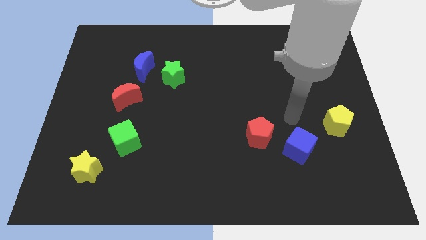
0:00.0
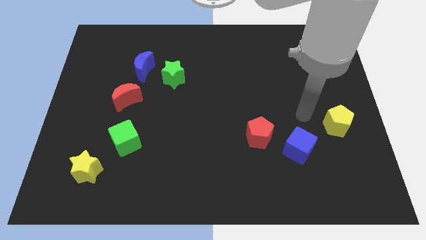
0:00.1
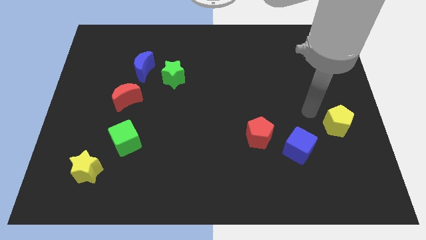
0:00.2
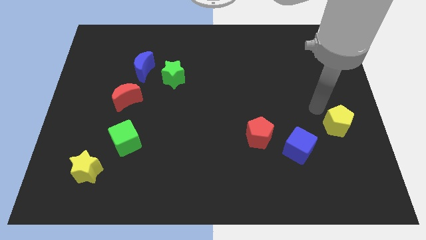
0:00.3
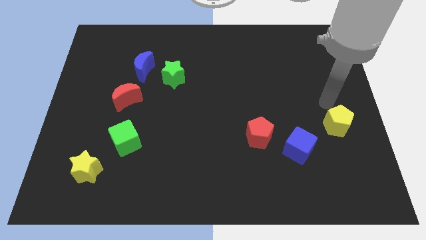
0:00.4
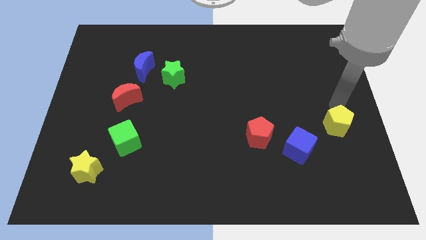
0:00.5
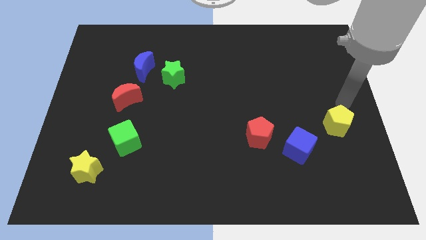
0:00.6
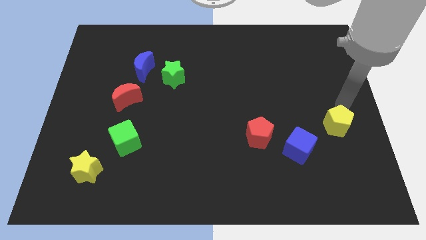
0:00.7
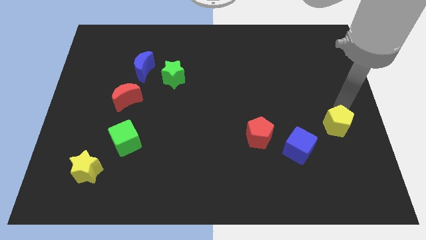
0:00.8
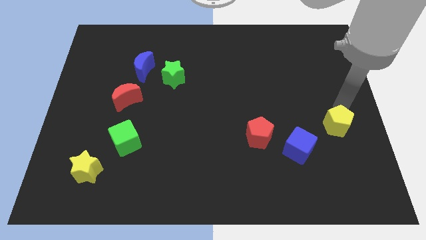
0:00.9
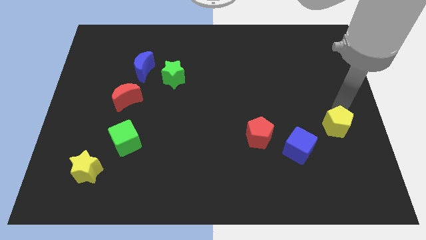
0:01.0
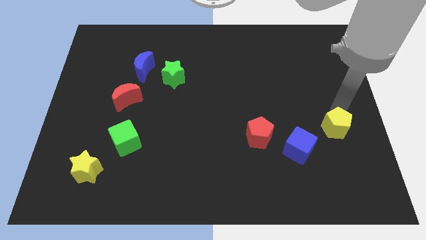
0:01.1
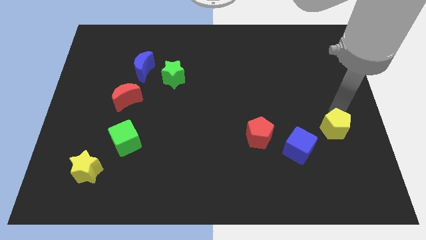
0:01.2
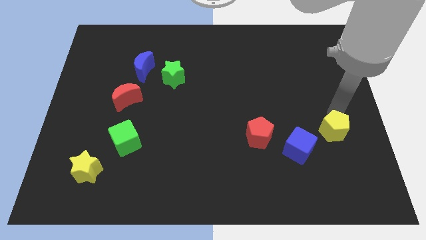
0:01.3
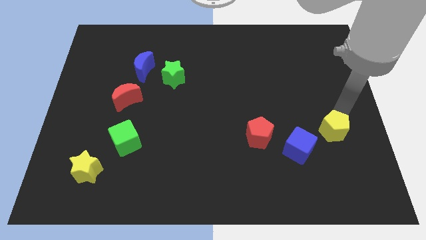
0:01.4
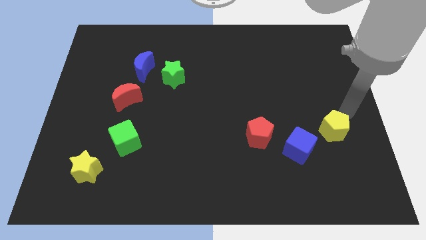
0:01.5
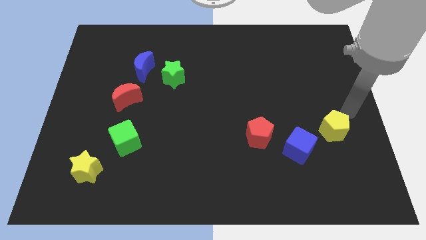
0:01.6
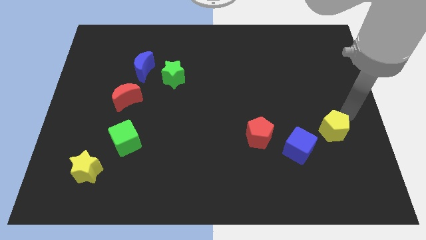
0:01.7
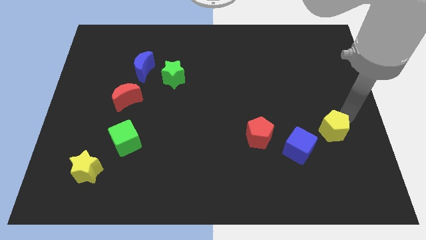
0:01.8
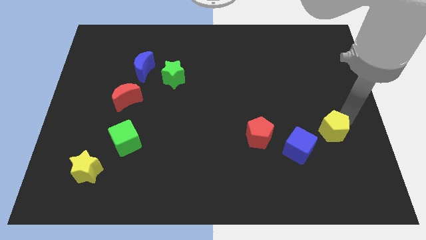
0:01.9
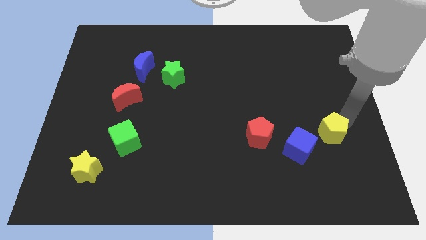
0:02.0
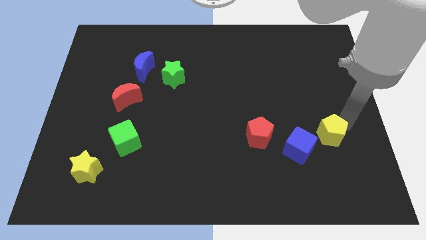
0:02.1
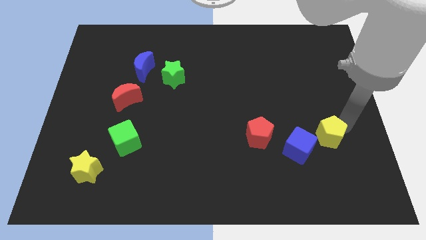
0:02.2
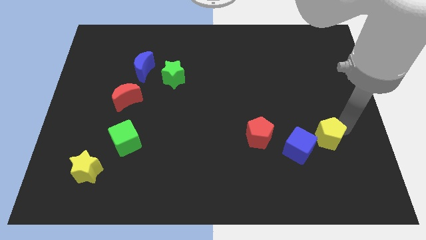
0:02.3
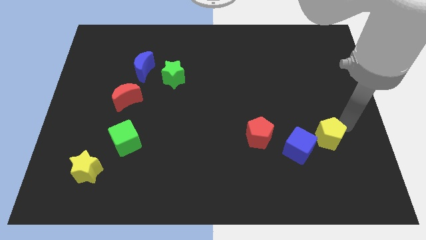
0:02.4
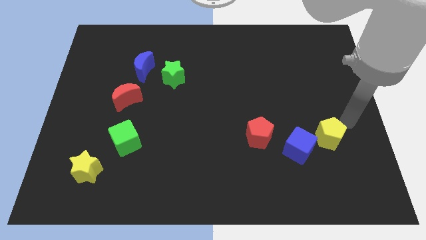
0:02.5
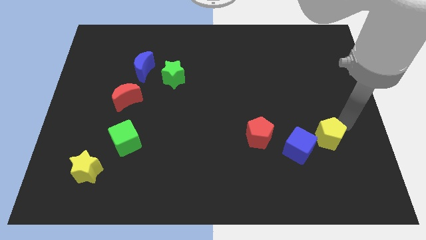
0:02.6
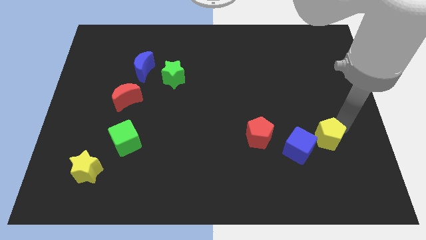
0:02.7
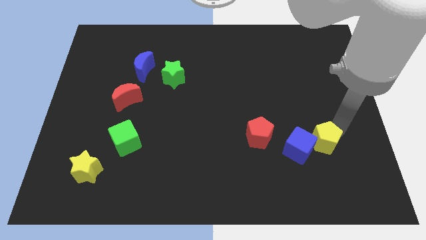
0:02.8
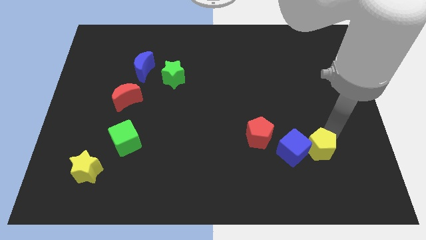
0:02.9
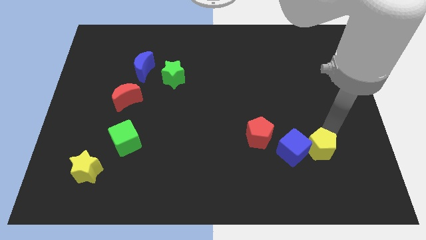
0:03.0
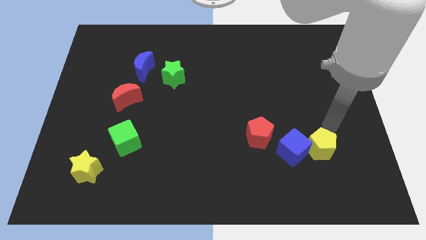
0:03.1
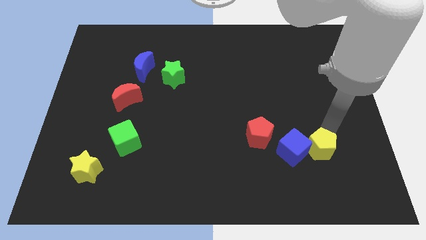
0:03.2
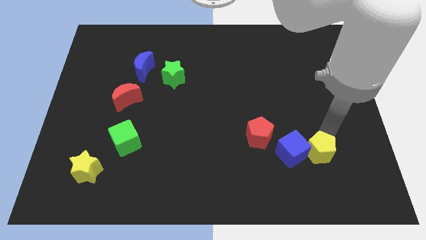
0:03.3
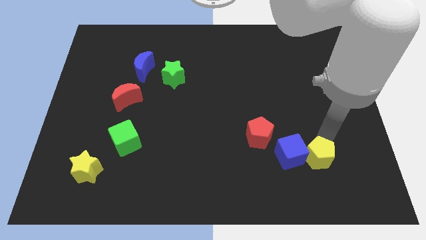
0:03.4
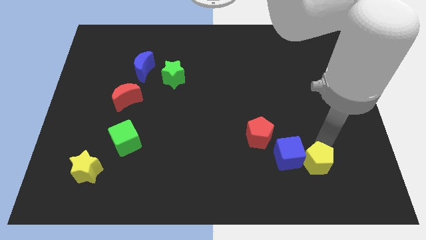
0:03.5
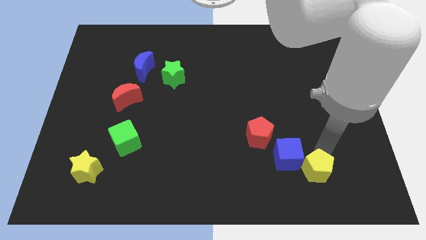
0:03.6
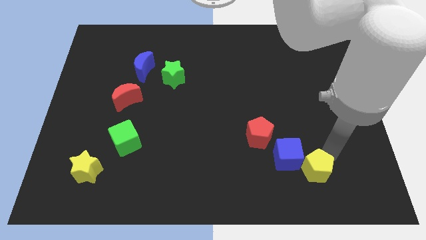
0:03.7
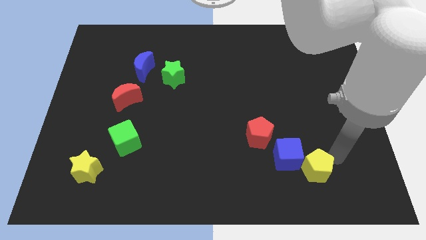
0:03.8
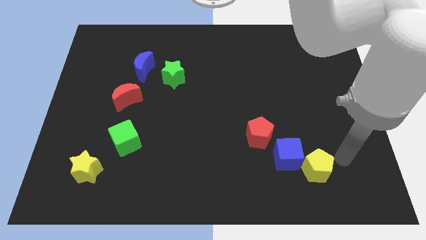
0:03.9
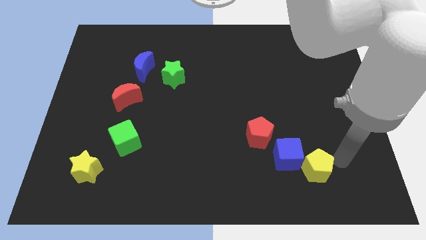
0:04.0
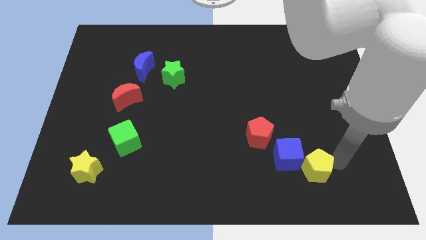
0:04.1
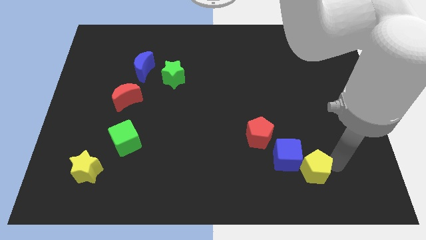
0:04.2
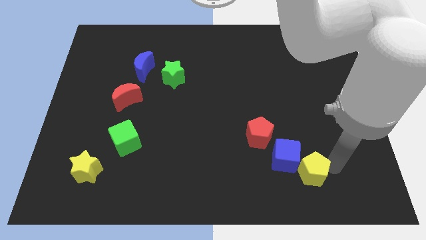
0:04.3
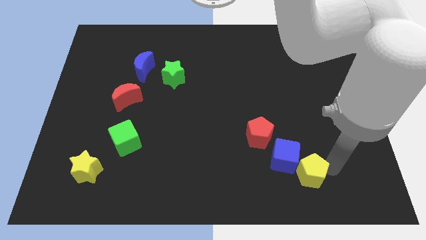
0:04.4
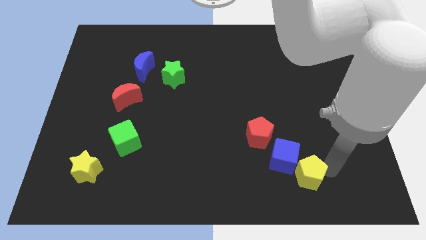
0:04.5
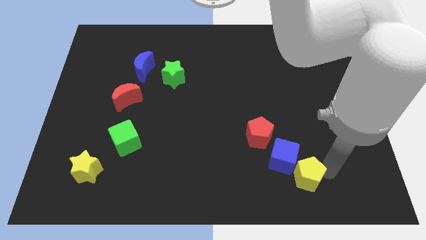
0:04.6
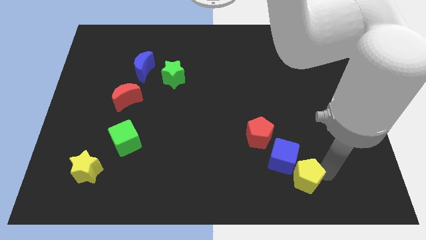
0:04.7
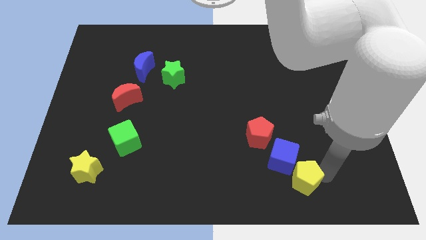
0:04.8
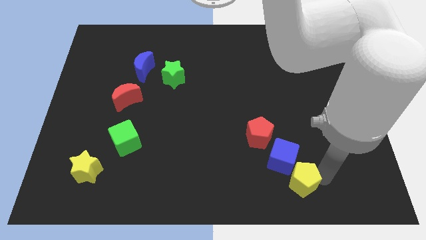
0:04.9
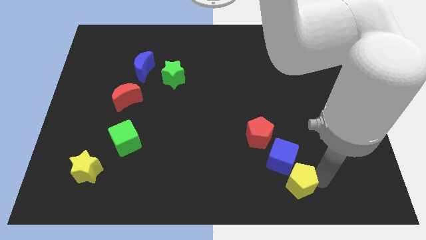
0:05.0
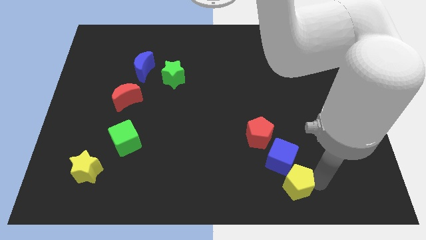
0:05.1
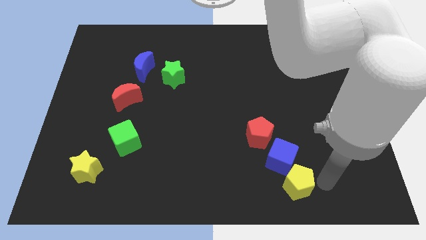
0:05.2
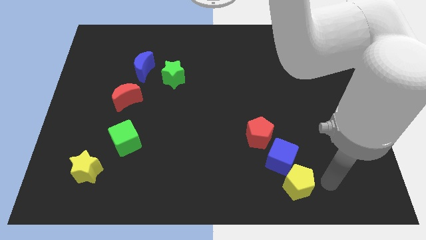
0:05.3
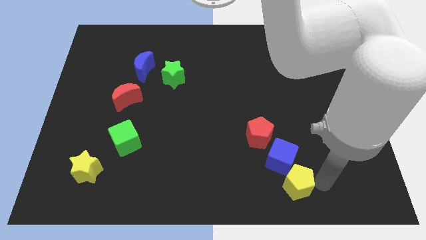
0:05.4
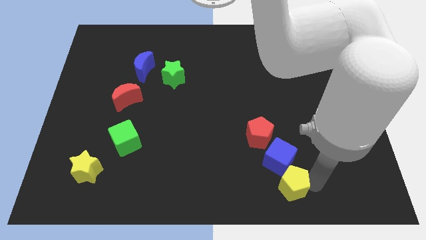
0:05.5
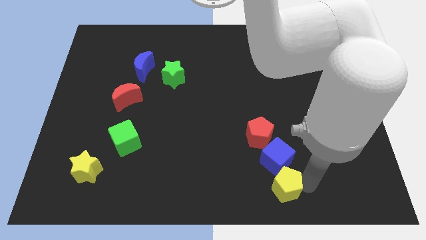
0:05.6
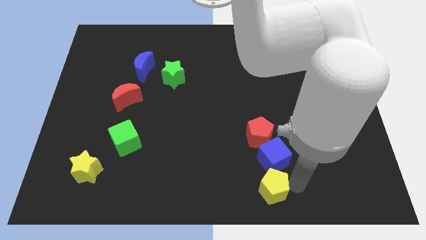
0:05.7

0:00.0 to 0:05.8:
move the yellow pentagon to the bottom

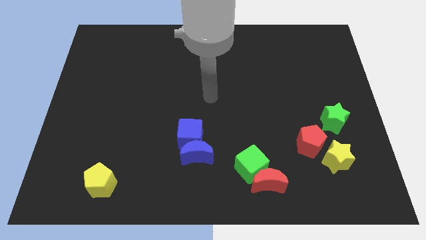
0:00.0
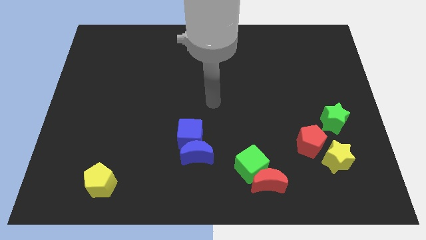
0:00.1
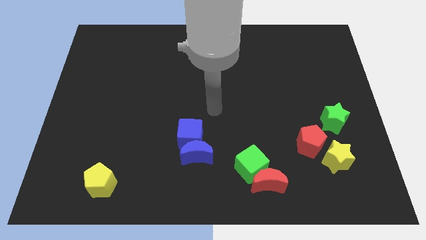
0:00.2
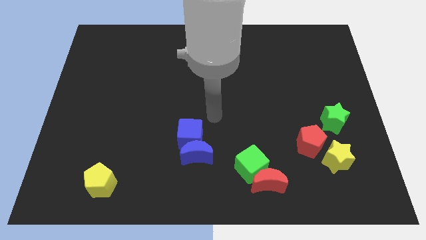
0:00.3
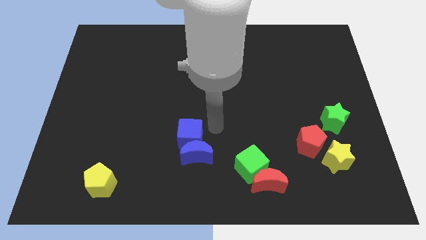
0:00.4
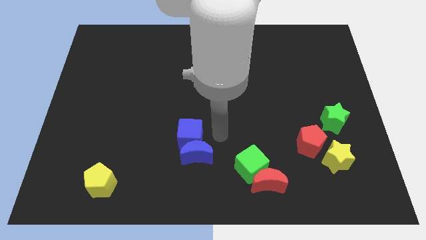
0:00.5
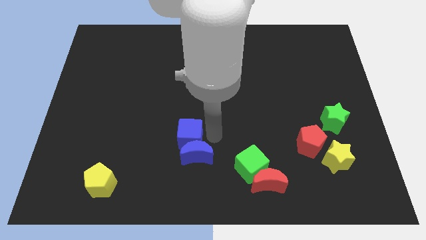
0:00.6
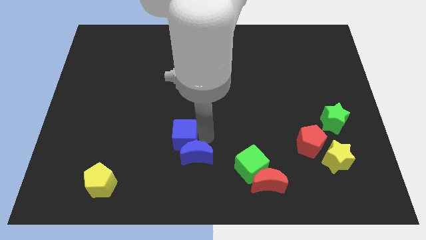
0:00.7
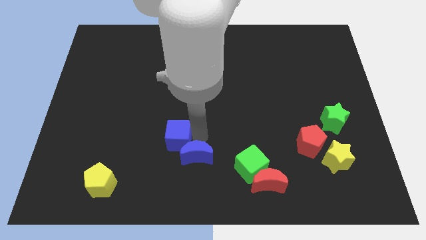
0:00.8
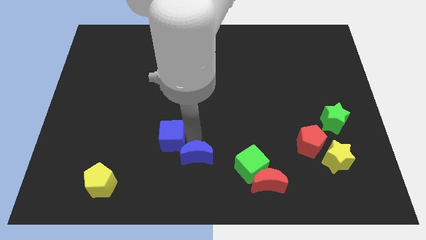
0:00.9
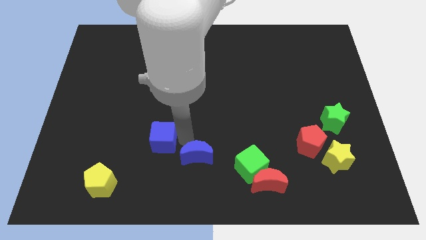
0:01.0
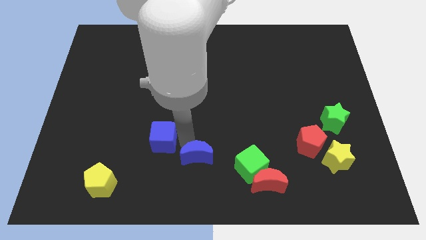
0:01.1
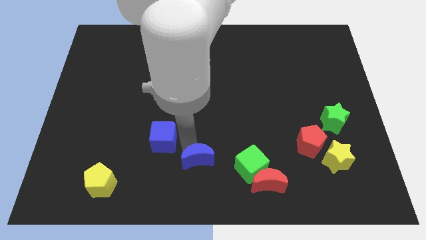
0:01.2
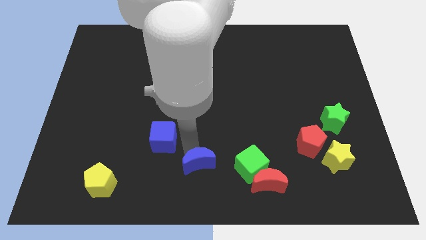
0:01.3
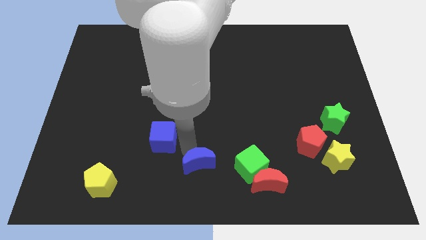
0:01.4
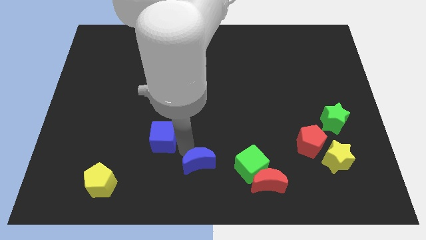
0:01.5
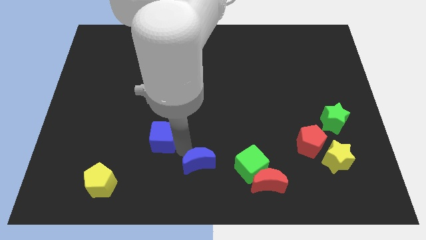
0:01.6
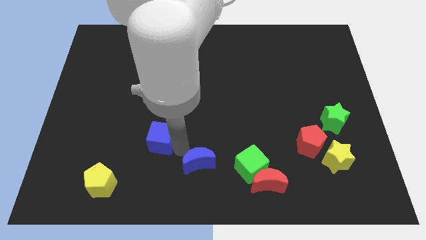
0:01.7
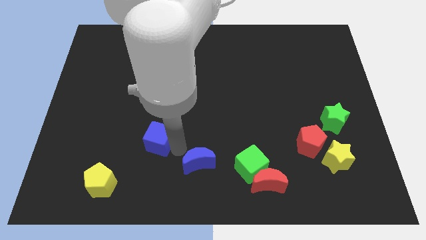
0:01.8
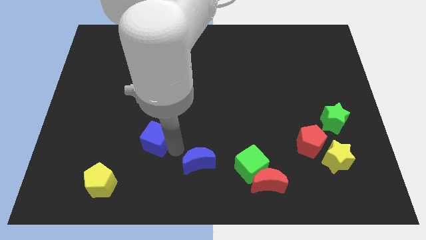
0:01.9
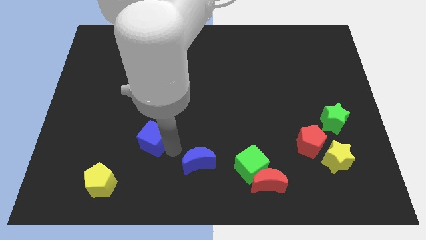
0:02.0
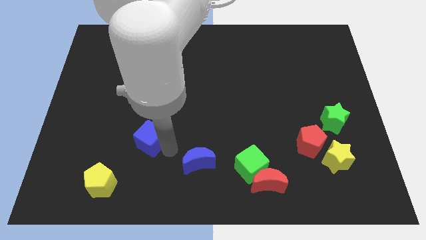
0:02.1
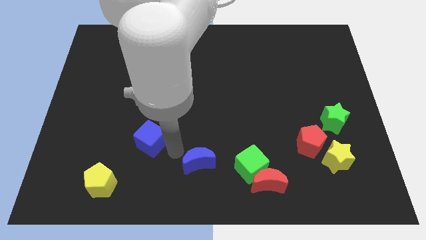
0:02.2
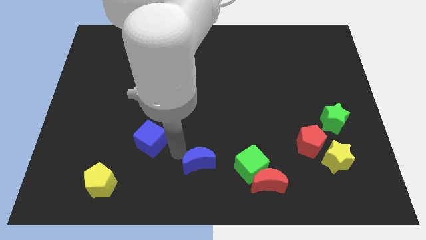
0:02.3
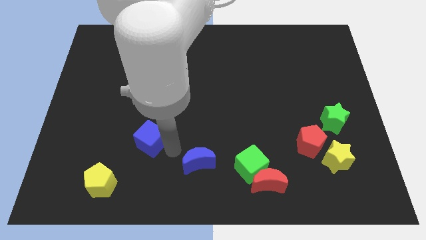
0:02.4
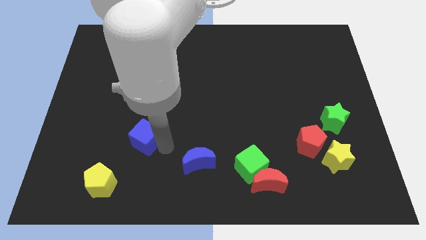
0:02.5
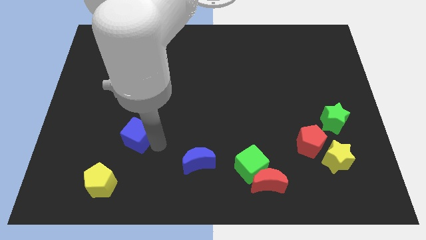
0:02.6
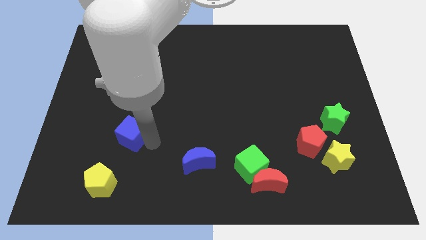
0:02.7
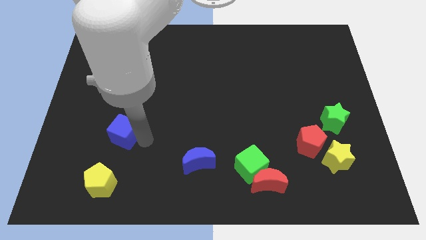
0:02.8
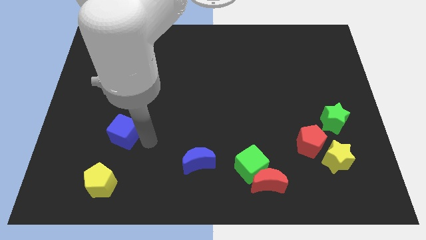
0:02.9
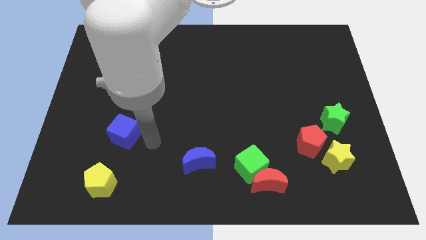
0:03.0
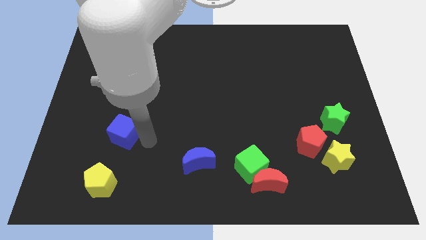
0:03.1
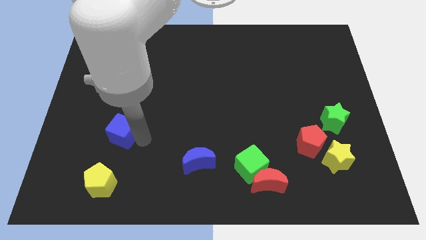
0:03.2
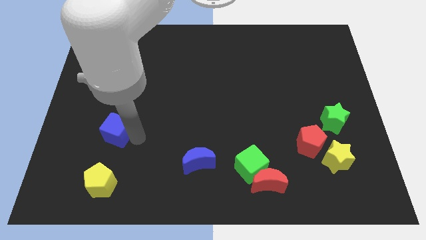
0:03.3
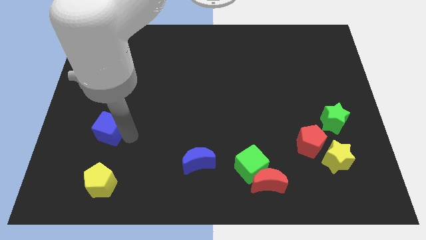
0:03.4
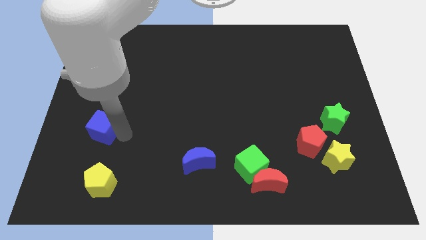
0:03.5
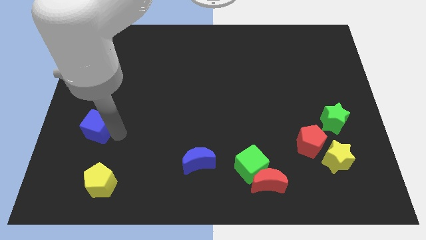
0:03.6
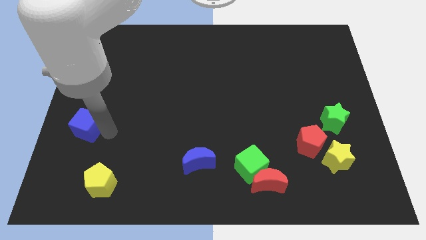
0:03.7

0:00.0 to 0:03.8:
push the blue cube to the left side
